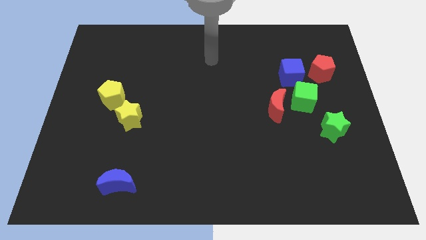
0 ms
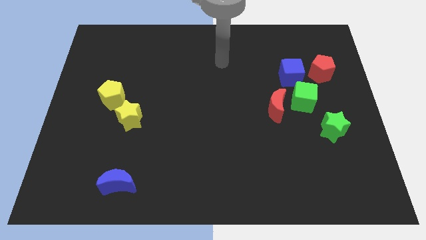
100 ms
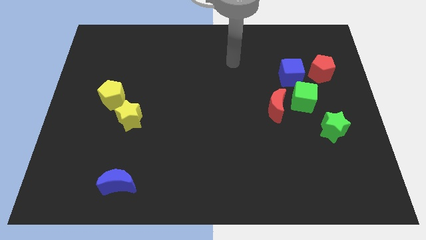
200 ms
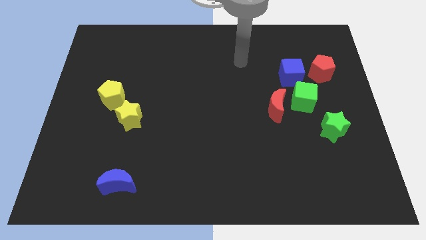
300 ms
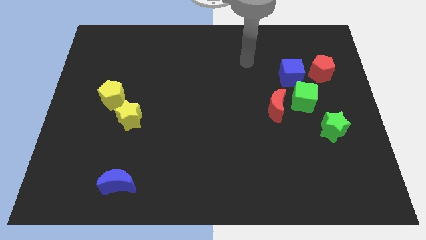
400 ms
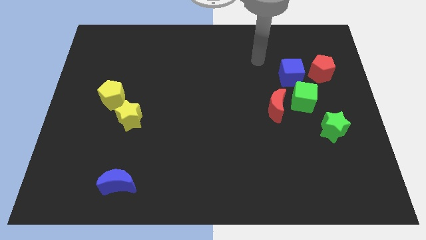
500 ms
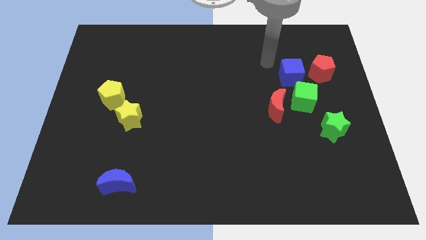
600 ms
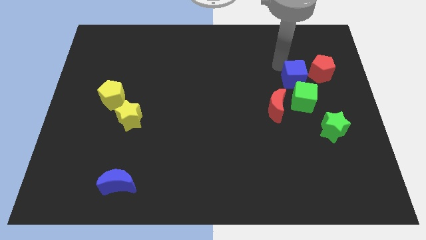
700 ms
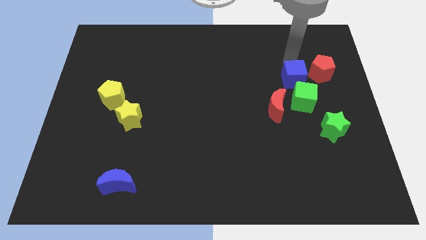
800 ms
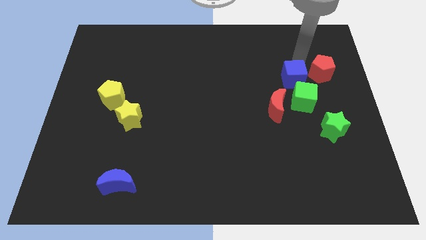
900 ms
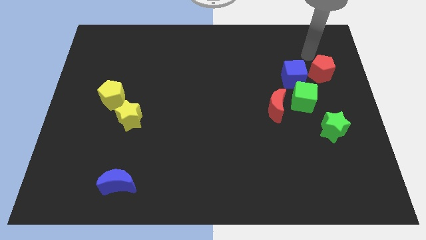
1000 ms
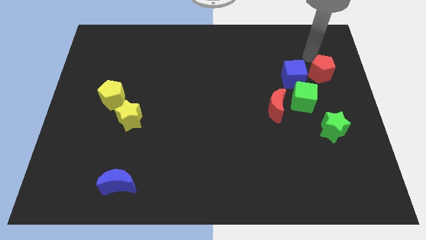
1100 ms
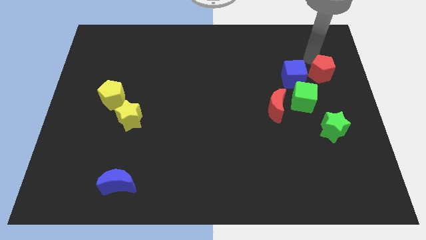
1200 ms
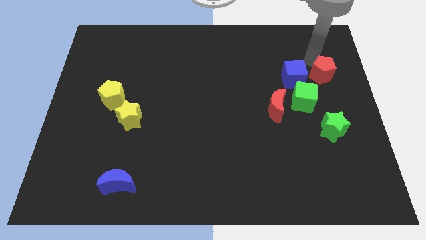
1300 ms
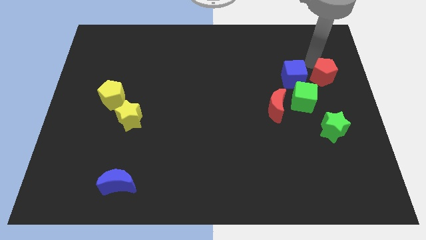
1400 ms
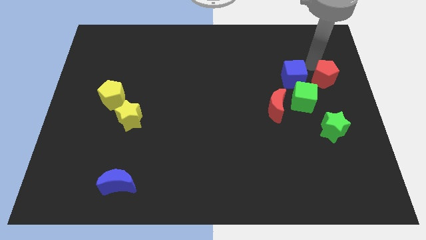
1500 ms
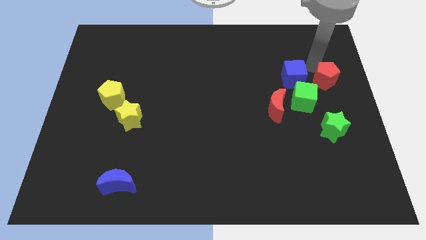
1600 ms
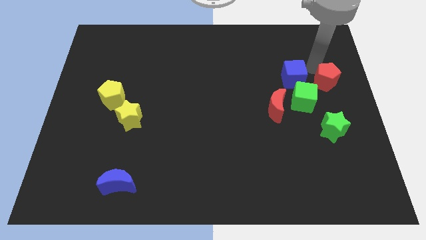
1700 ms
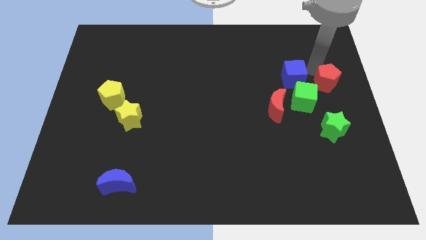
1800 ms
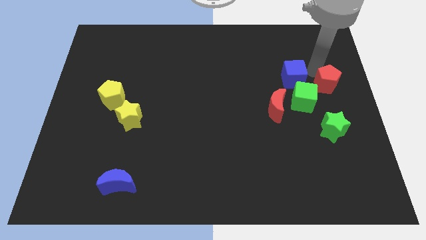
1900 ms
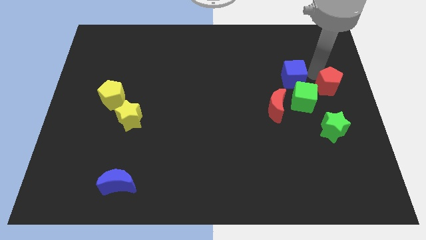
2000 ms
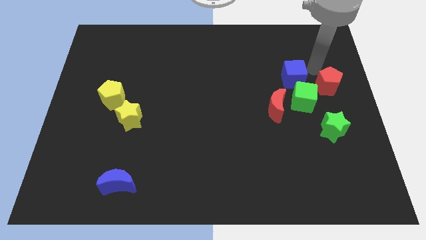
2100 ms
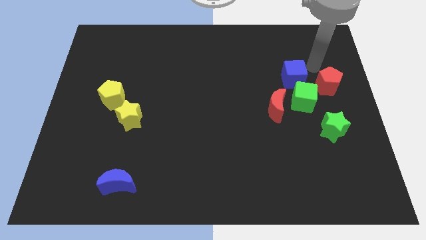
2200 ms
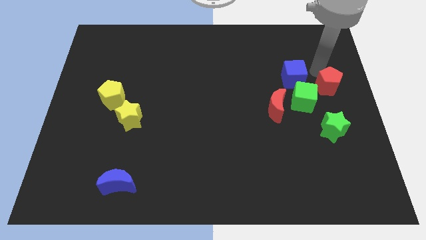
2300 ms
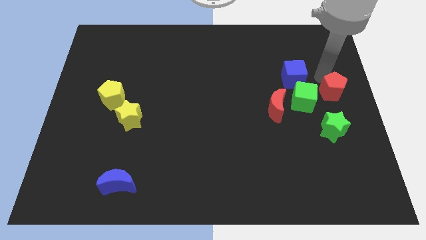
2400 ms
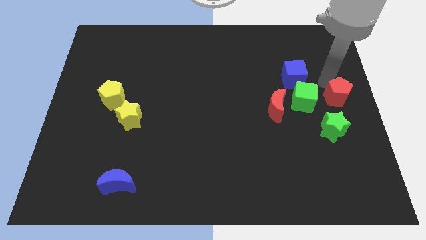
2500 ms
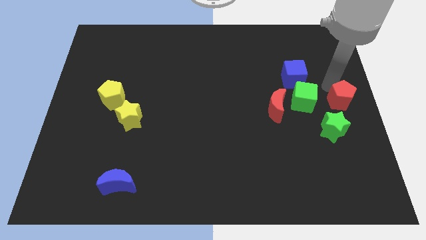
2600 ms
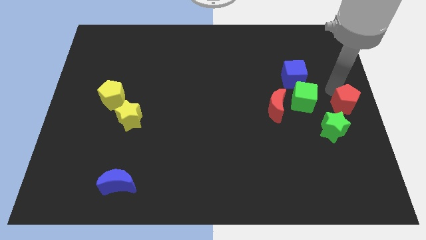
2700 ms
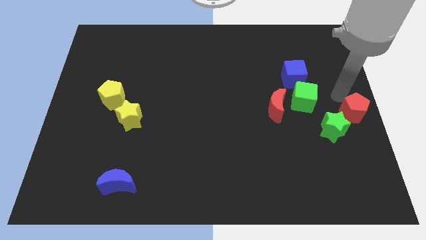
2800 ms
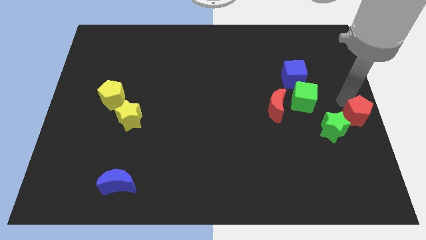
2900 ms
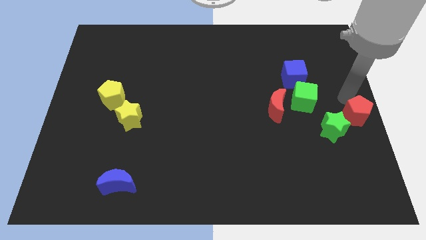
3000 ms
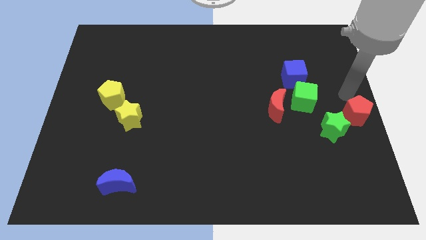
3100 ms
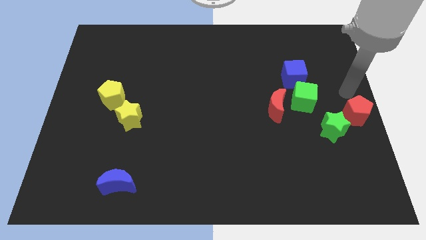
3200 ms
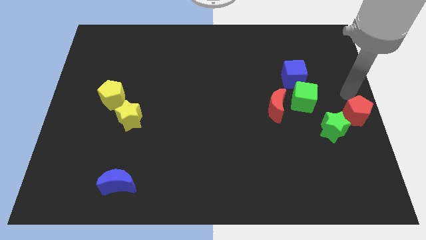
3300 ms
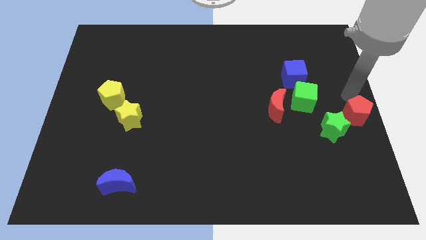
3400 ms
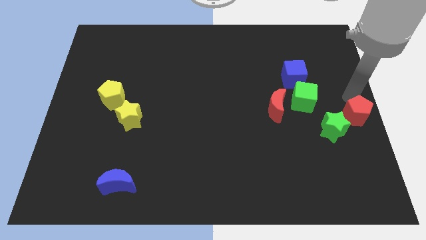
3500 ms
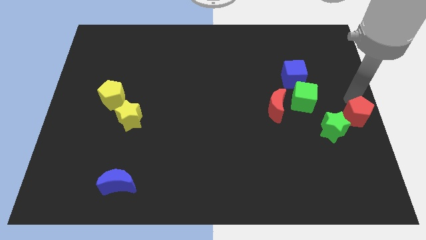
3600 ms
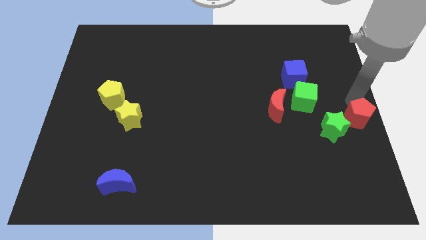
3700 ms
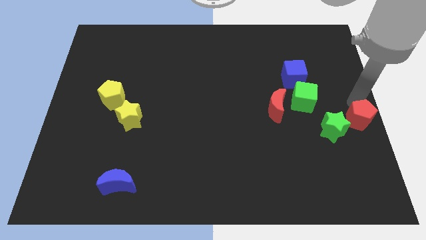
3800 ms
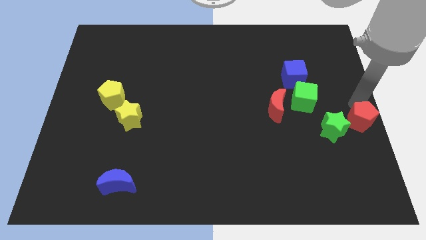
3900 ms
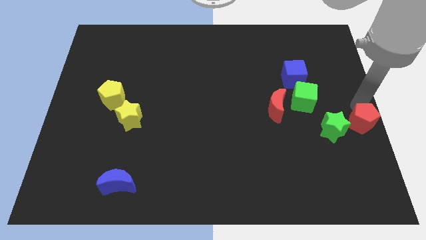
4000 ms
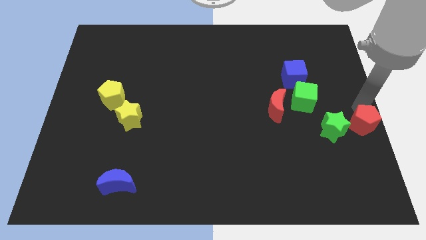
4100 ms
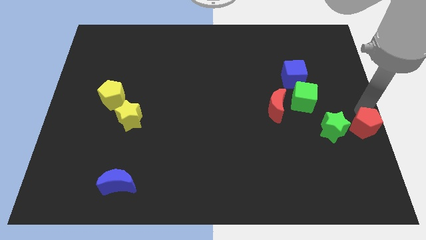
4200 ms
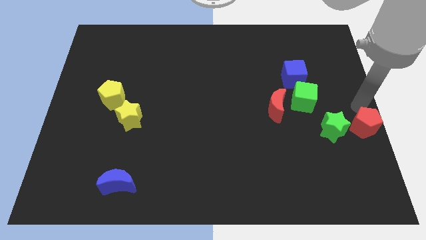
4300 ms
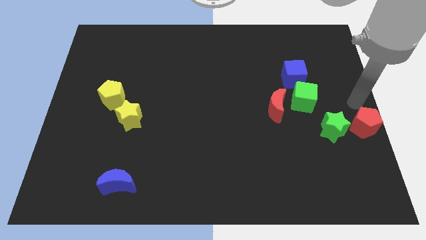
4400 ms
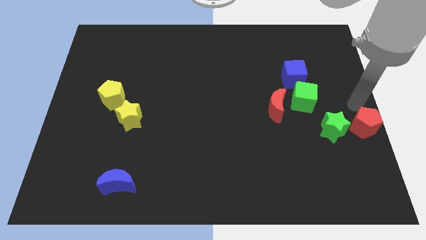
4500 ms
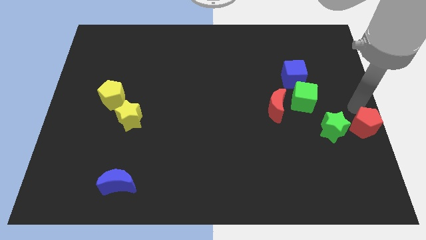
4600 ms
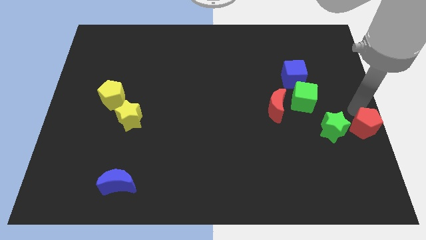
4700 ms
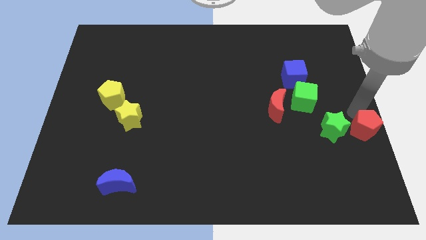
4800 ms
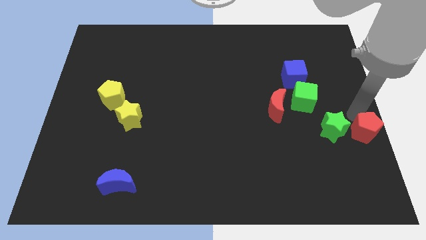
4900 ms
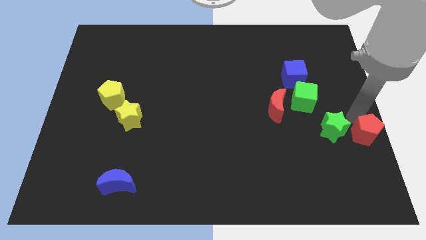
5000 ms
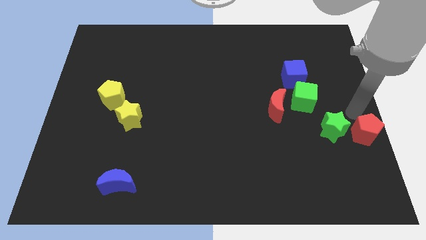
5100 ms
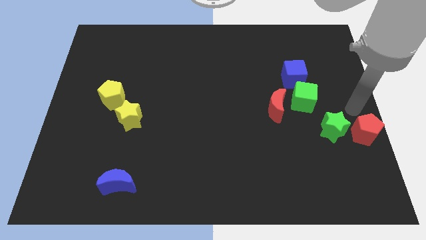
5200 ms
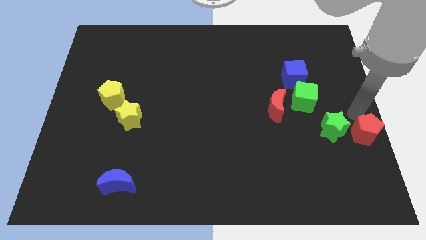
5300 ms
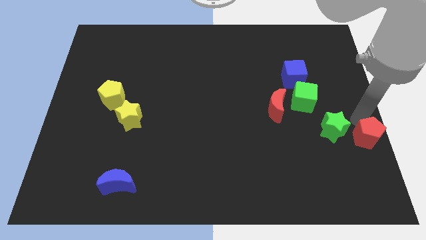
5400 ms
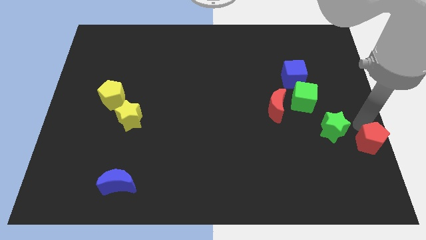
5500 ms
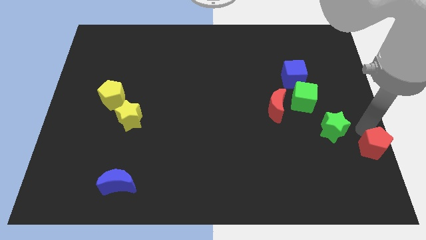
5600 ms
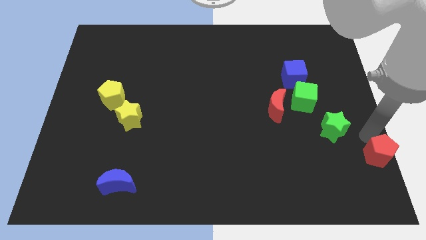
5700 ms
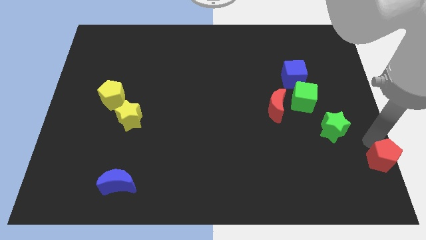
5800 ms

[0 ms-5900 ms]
put the red pentagon to the bottom right of the board
